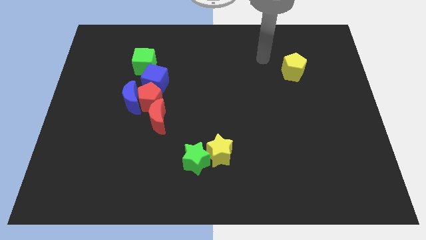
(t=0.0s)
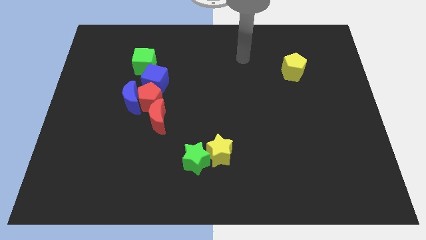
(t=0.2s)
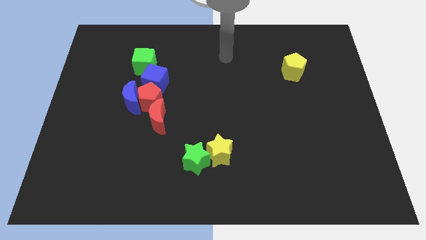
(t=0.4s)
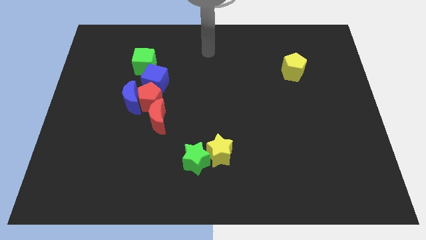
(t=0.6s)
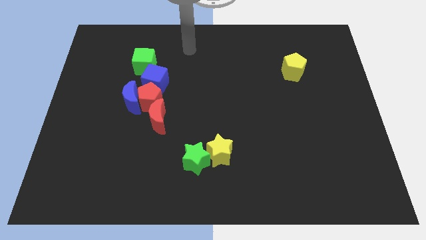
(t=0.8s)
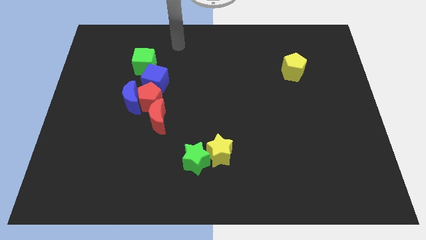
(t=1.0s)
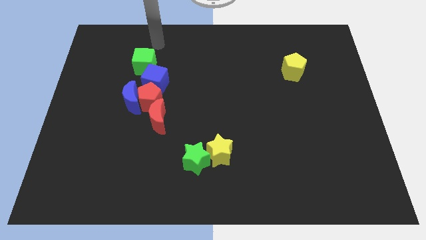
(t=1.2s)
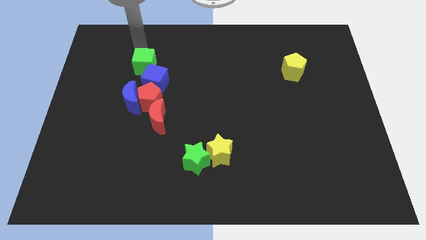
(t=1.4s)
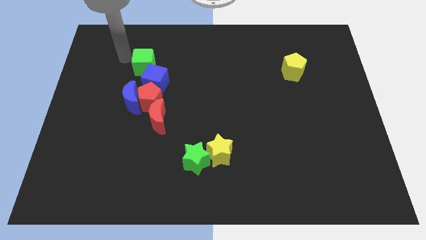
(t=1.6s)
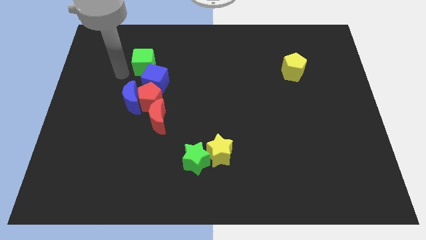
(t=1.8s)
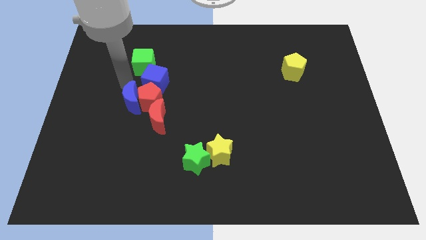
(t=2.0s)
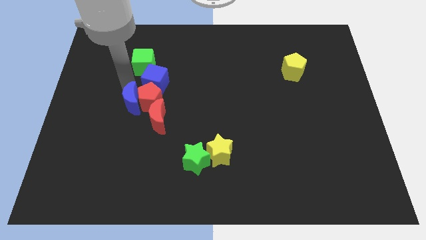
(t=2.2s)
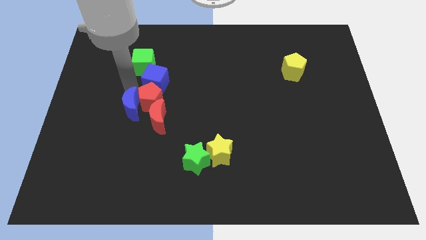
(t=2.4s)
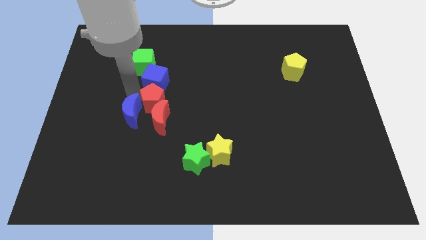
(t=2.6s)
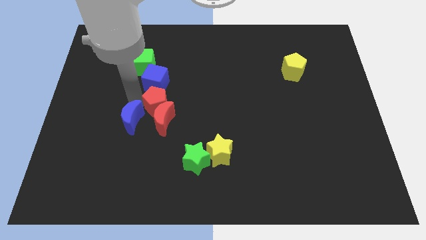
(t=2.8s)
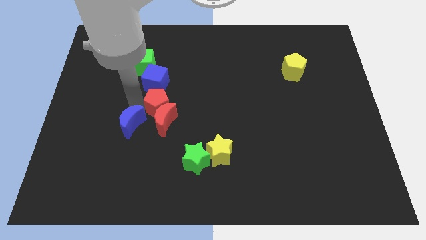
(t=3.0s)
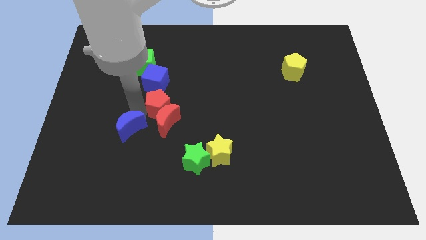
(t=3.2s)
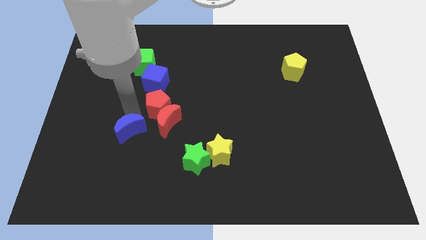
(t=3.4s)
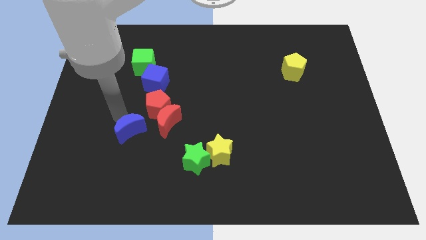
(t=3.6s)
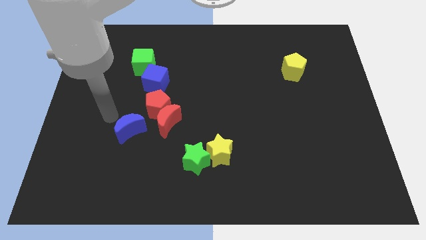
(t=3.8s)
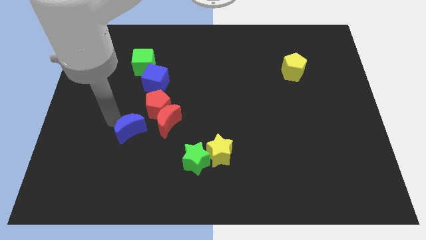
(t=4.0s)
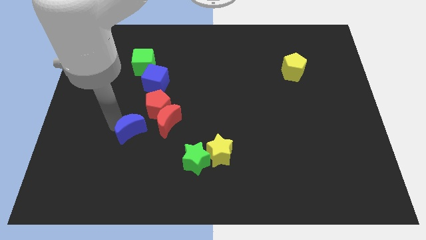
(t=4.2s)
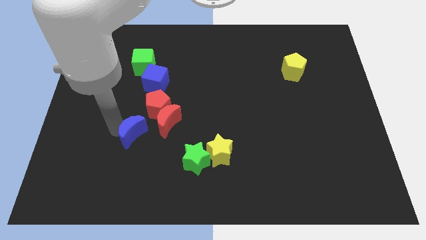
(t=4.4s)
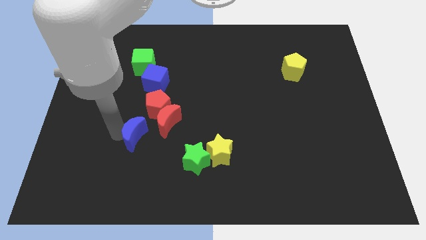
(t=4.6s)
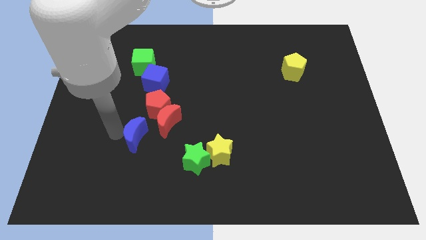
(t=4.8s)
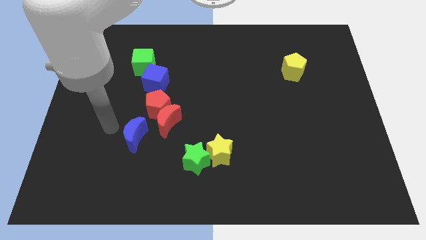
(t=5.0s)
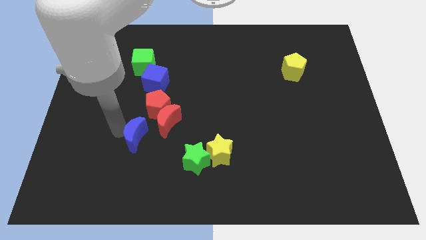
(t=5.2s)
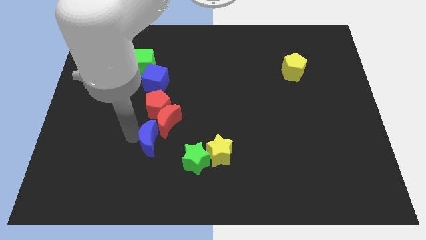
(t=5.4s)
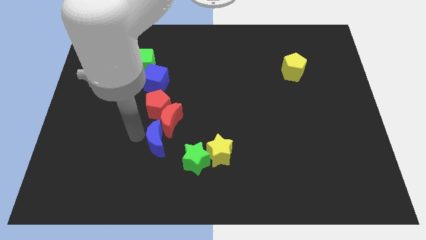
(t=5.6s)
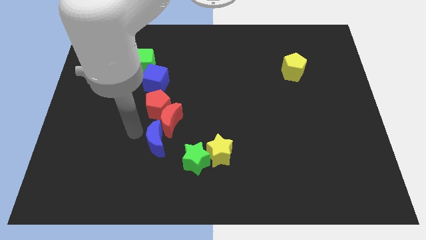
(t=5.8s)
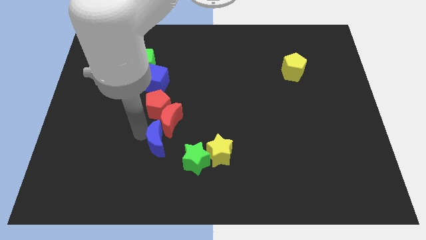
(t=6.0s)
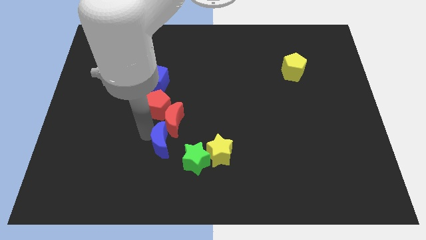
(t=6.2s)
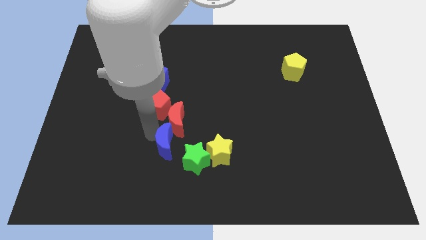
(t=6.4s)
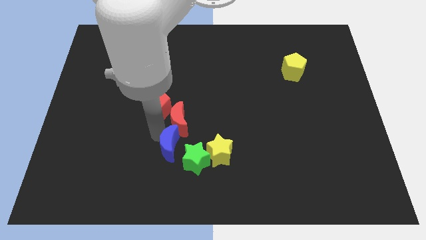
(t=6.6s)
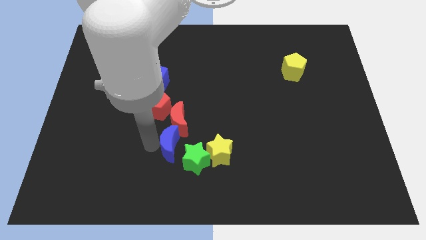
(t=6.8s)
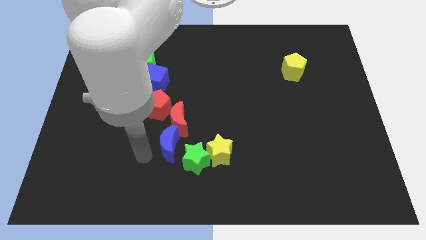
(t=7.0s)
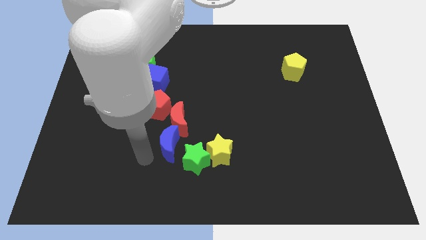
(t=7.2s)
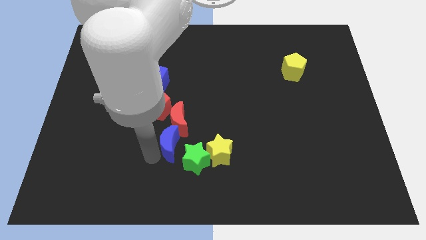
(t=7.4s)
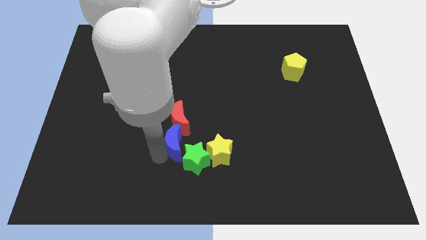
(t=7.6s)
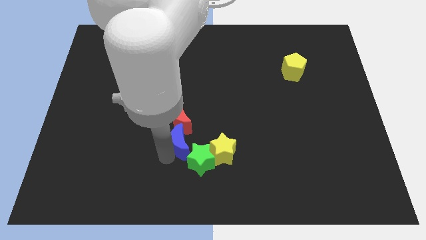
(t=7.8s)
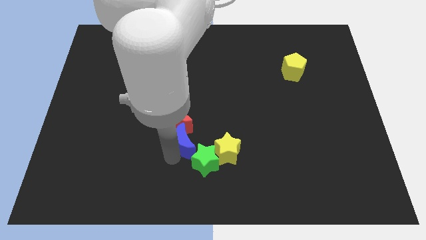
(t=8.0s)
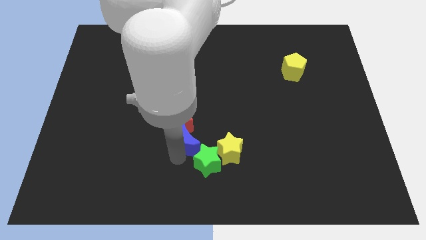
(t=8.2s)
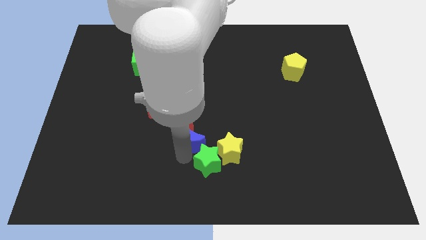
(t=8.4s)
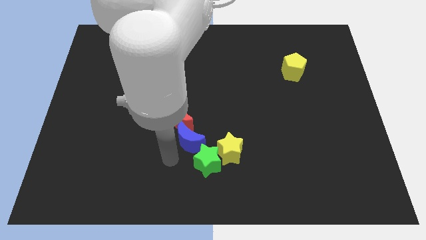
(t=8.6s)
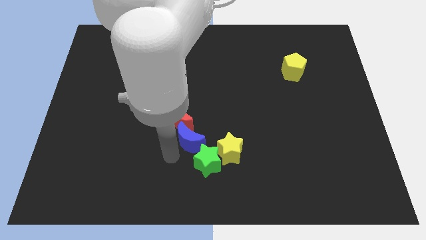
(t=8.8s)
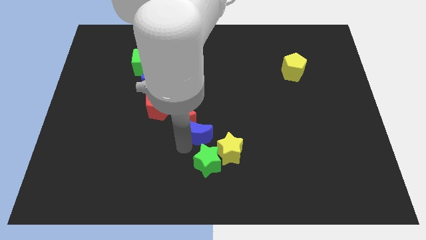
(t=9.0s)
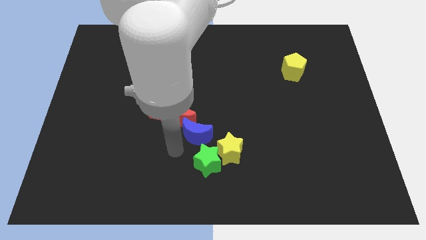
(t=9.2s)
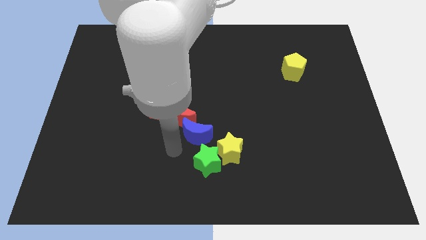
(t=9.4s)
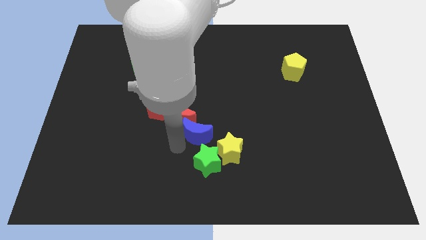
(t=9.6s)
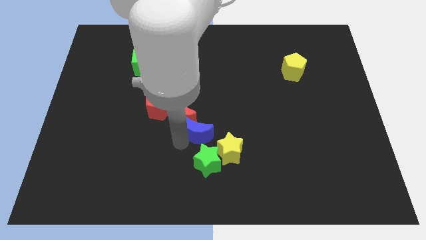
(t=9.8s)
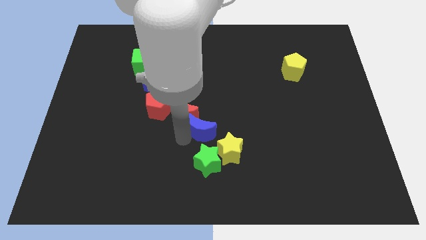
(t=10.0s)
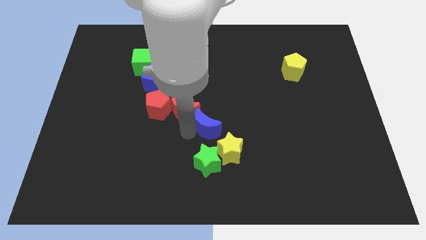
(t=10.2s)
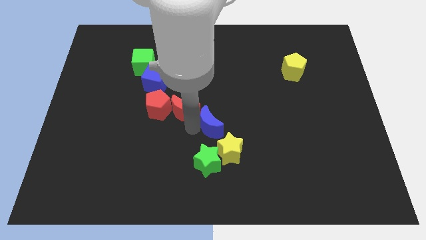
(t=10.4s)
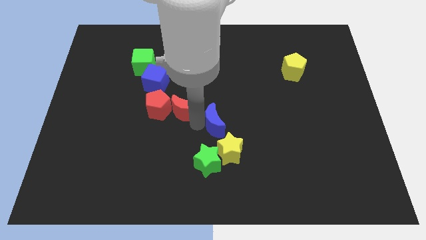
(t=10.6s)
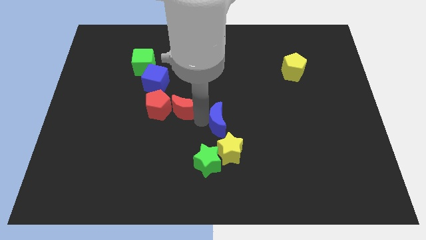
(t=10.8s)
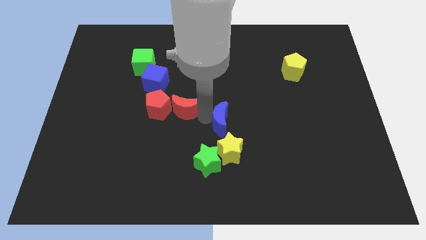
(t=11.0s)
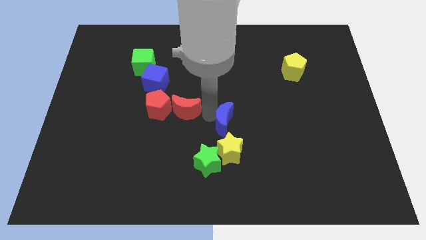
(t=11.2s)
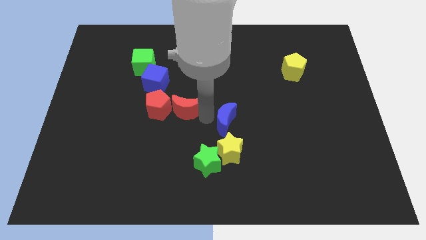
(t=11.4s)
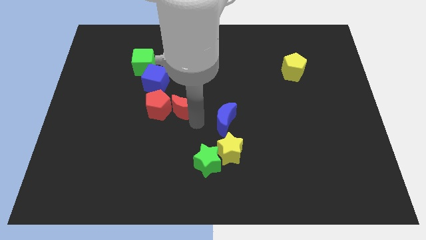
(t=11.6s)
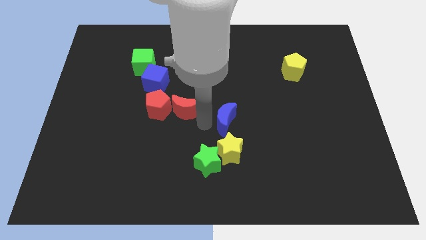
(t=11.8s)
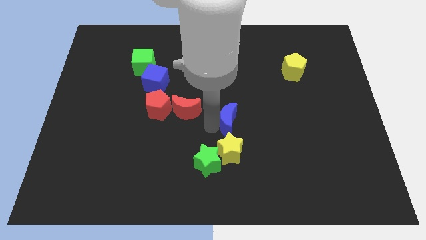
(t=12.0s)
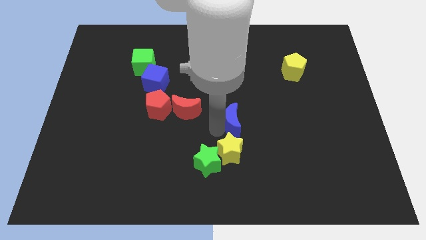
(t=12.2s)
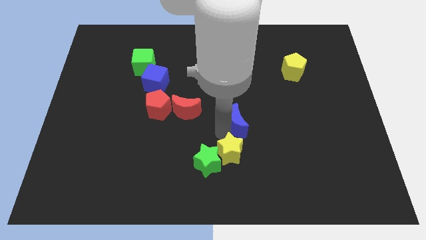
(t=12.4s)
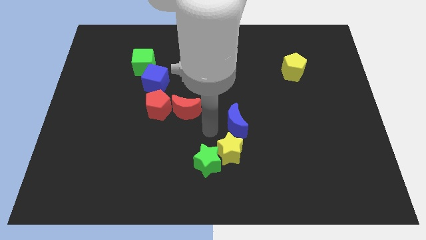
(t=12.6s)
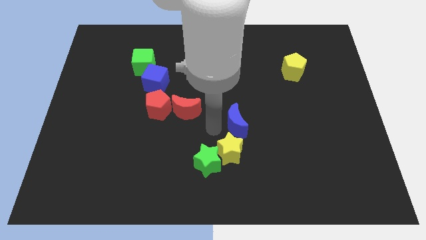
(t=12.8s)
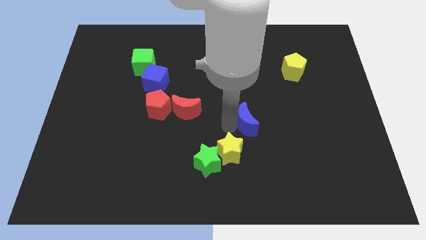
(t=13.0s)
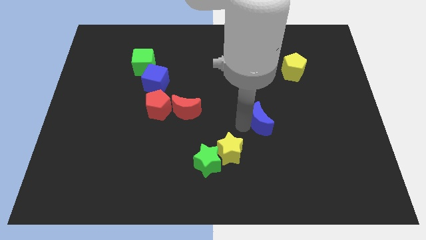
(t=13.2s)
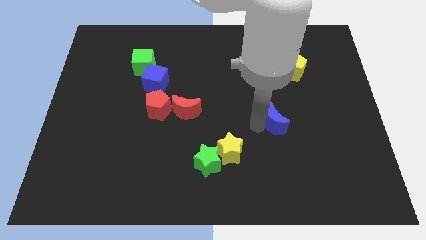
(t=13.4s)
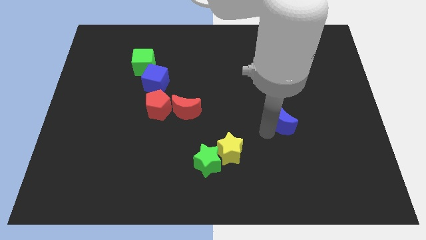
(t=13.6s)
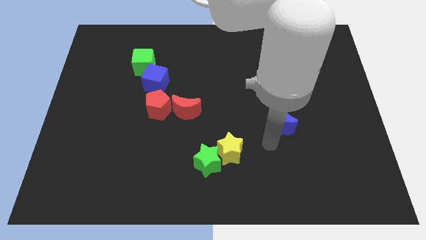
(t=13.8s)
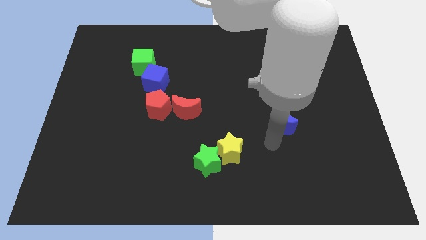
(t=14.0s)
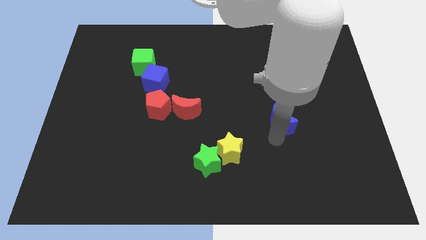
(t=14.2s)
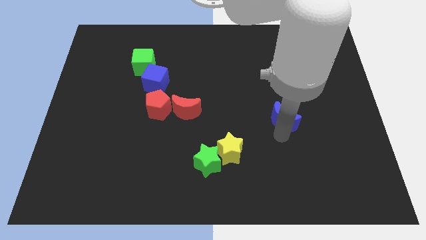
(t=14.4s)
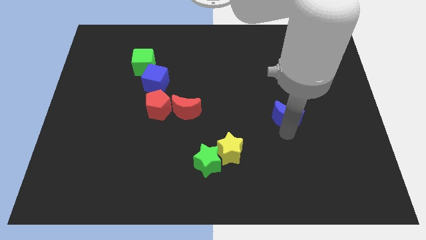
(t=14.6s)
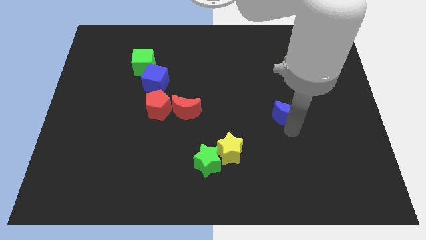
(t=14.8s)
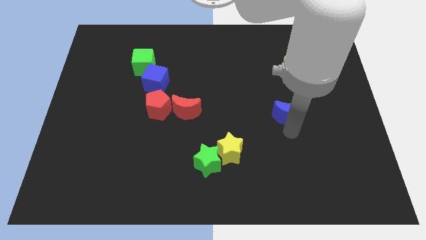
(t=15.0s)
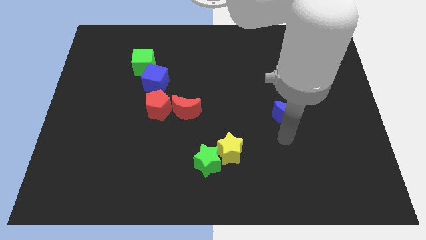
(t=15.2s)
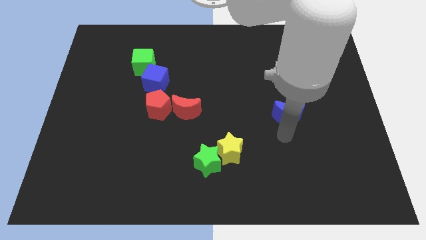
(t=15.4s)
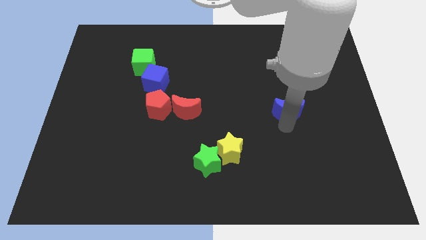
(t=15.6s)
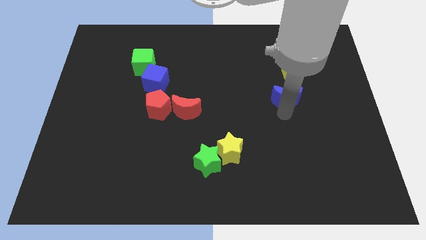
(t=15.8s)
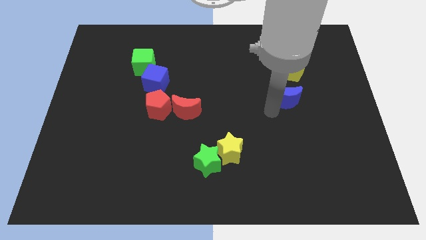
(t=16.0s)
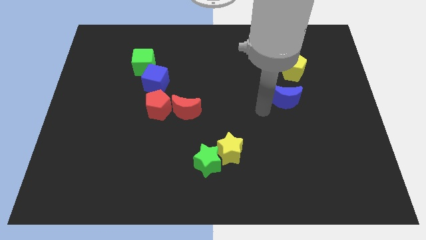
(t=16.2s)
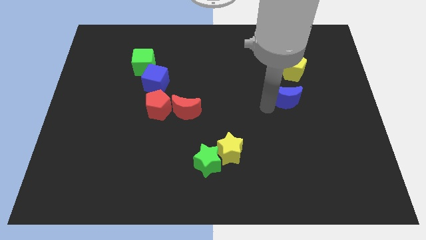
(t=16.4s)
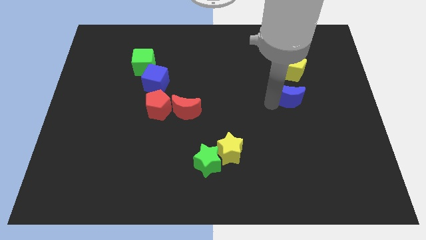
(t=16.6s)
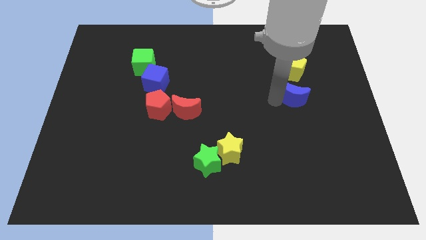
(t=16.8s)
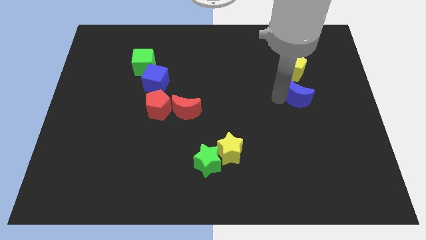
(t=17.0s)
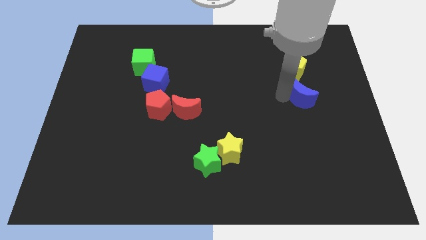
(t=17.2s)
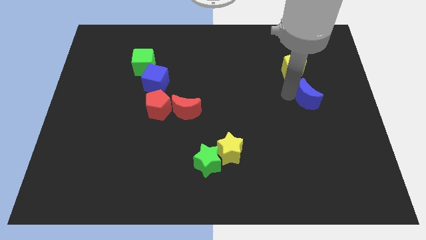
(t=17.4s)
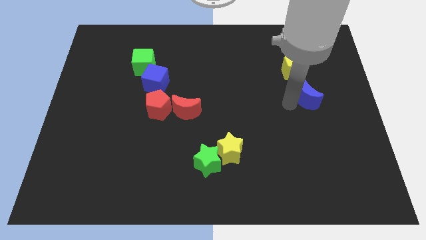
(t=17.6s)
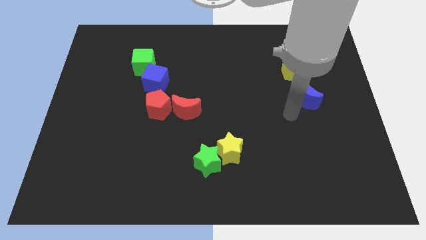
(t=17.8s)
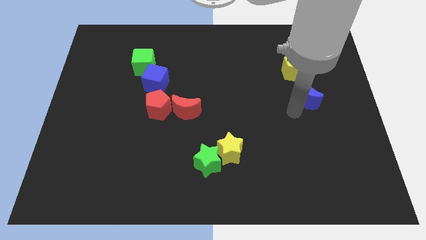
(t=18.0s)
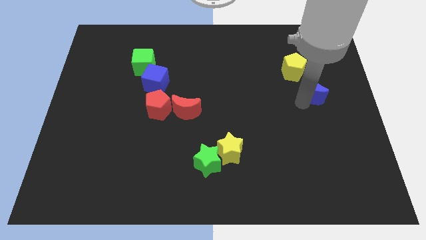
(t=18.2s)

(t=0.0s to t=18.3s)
move the blue moon diagonally down and to the right of the yellow pentagon
